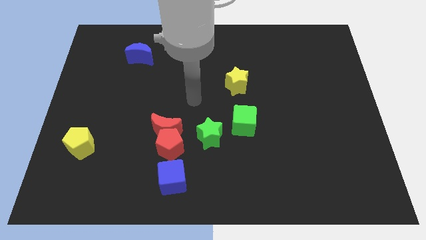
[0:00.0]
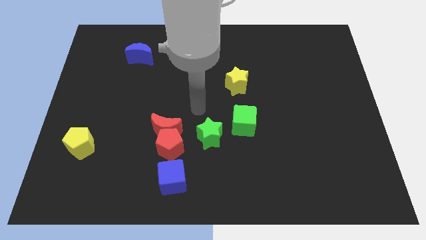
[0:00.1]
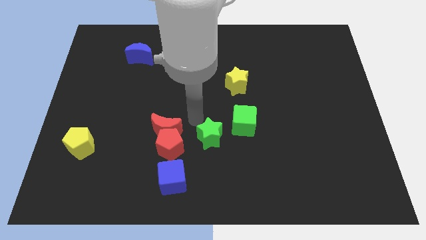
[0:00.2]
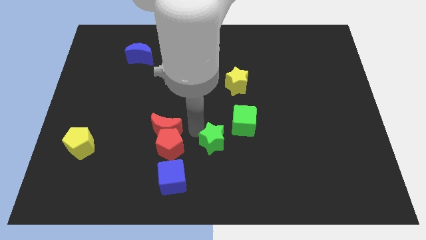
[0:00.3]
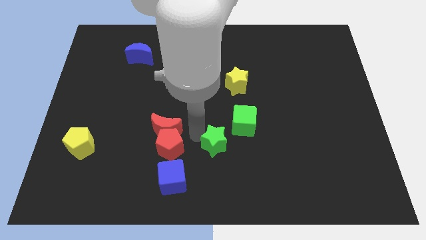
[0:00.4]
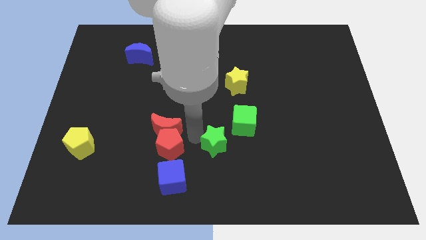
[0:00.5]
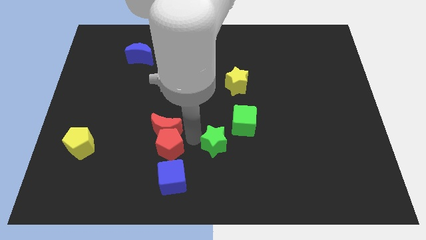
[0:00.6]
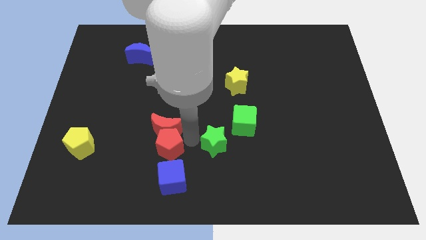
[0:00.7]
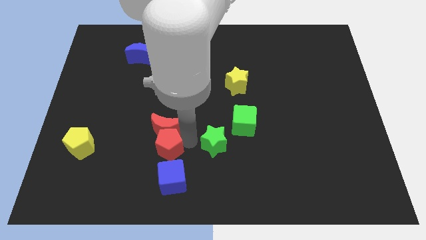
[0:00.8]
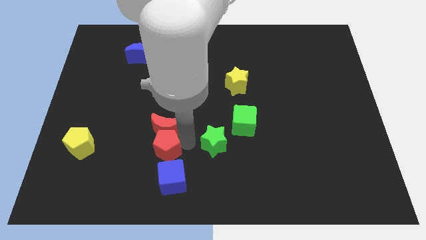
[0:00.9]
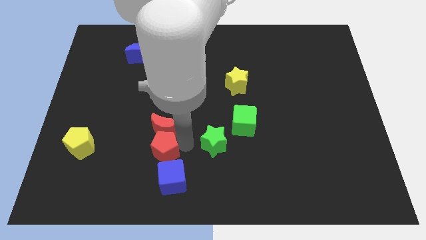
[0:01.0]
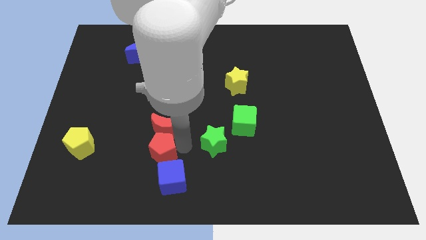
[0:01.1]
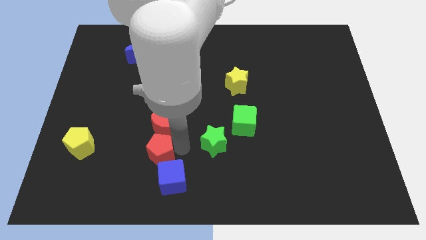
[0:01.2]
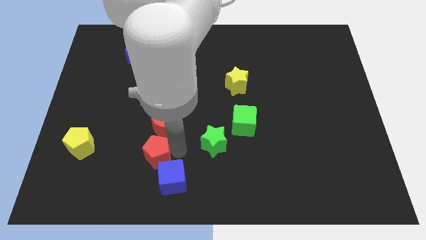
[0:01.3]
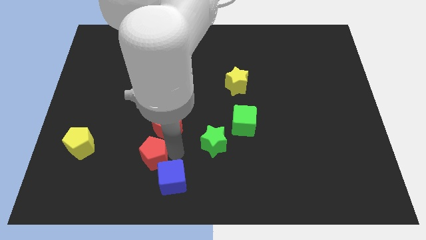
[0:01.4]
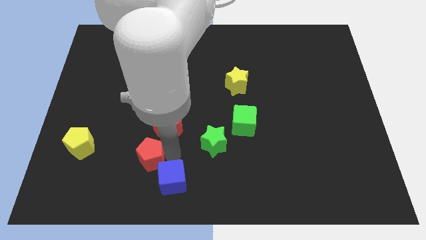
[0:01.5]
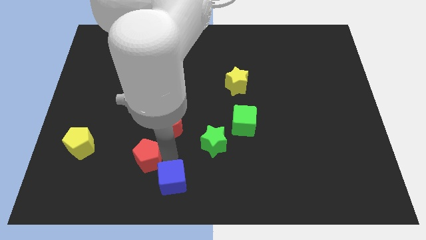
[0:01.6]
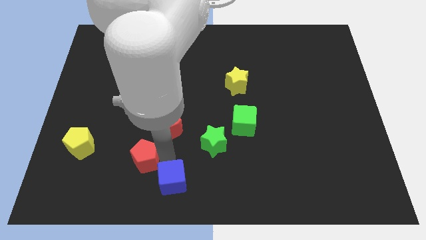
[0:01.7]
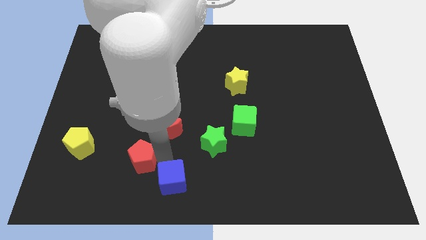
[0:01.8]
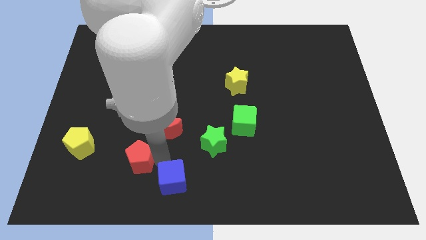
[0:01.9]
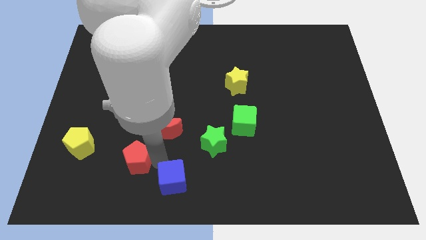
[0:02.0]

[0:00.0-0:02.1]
pull the red pentagon apart from the clump

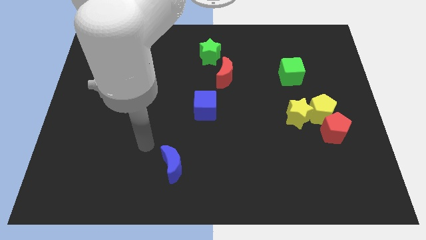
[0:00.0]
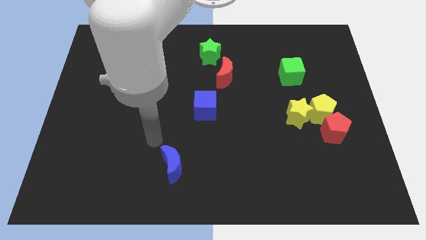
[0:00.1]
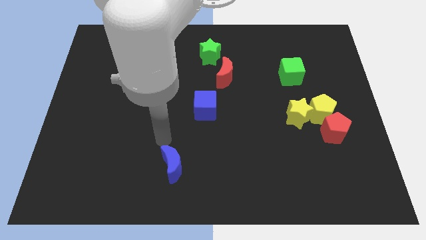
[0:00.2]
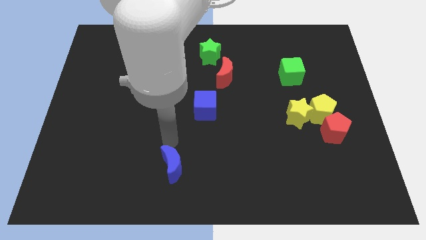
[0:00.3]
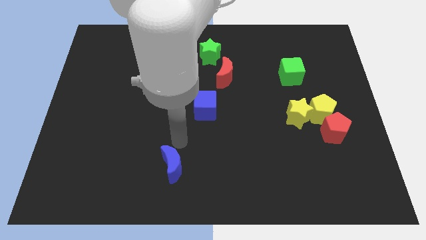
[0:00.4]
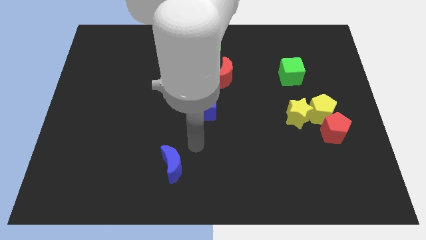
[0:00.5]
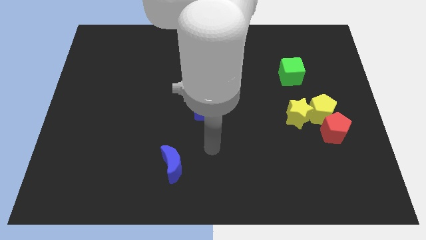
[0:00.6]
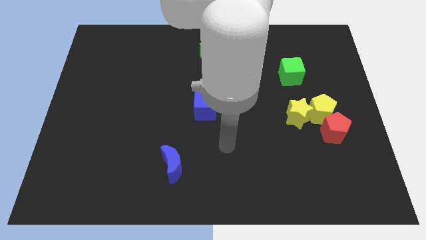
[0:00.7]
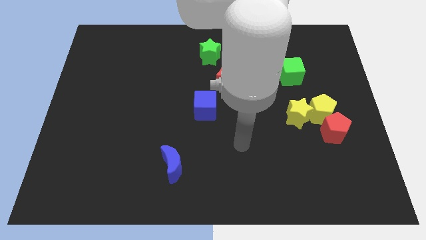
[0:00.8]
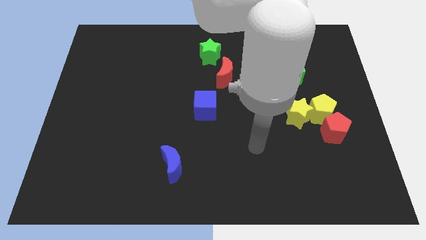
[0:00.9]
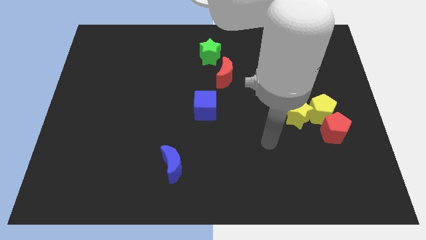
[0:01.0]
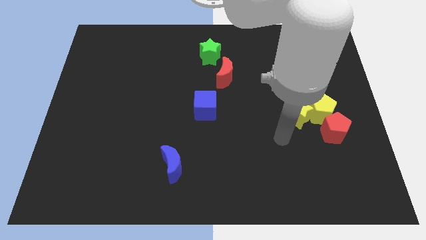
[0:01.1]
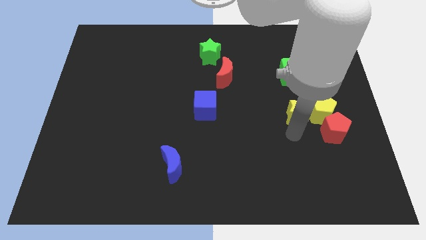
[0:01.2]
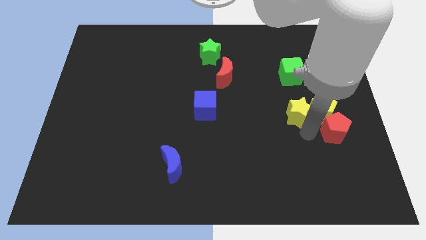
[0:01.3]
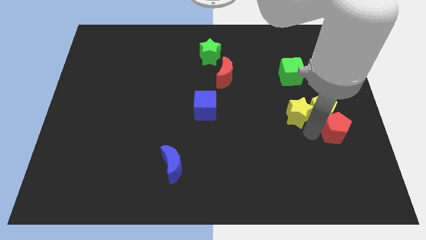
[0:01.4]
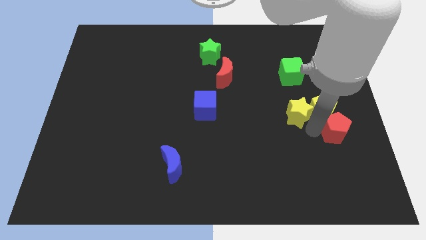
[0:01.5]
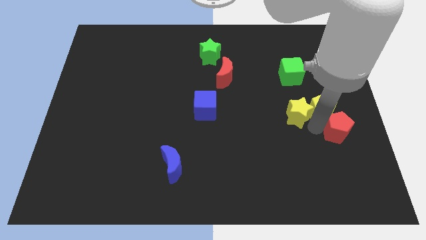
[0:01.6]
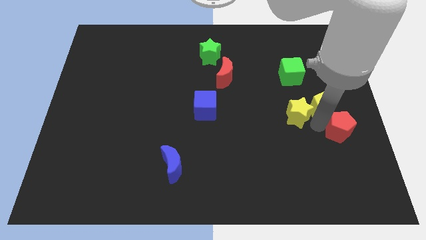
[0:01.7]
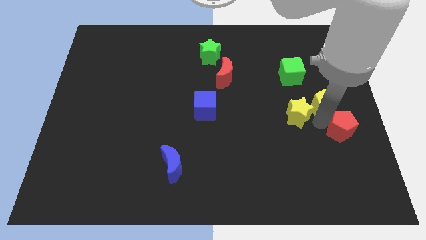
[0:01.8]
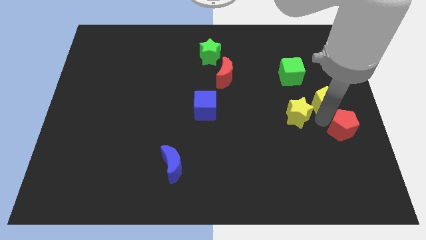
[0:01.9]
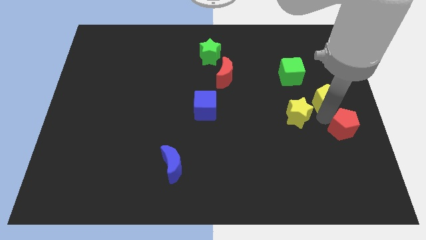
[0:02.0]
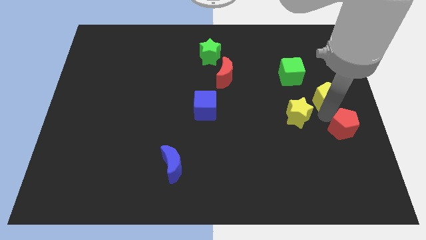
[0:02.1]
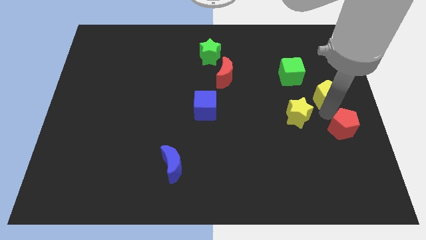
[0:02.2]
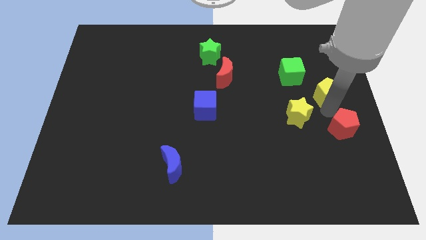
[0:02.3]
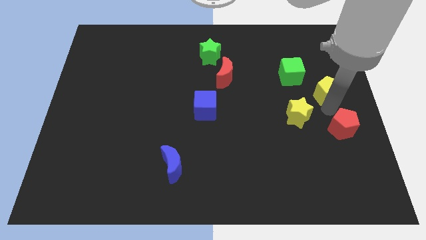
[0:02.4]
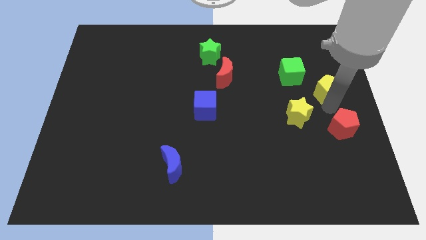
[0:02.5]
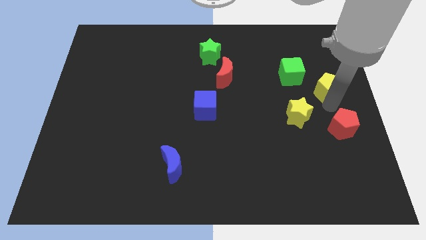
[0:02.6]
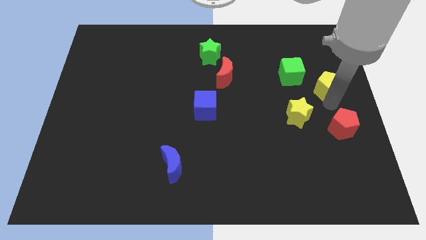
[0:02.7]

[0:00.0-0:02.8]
move the yellow pentagon away from the yellow star and red pentagon

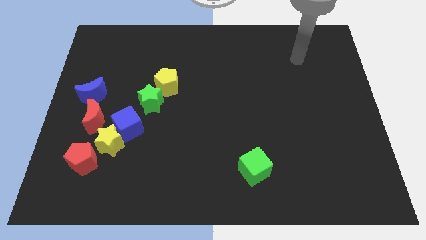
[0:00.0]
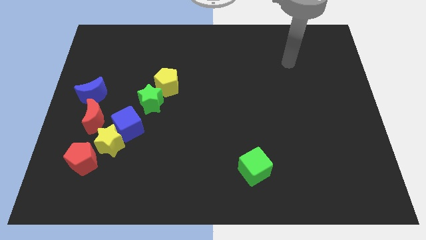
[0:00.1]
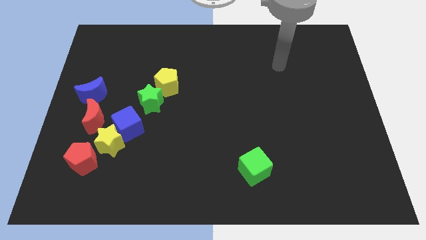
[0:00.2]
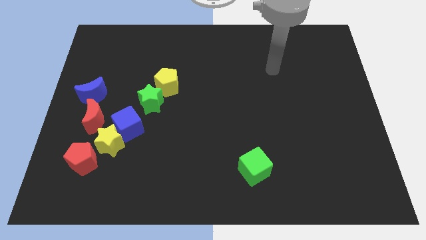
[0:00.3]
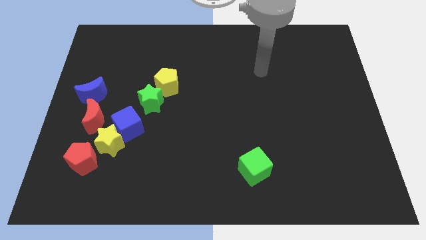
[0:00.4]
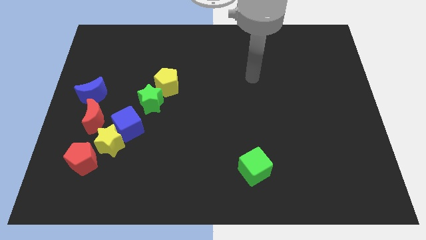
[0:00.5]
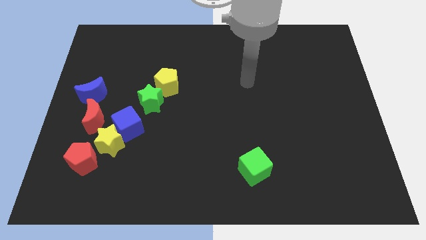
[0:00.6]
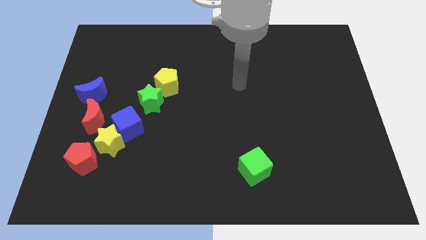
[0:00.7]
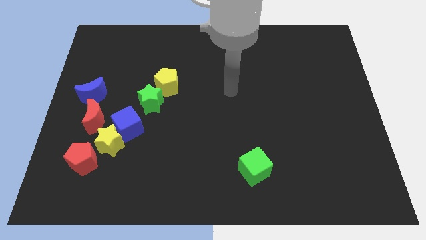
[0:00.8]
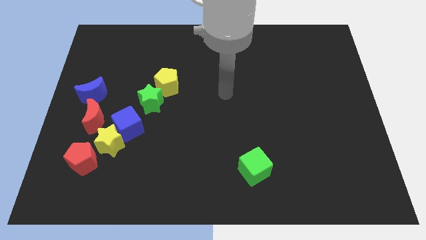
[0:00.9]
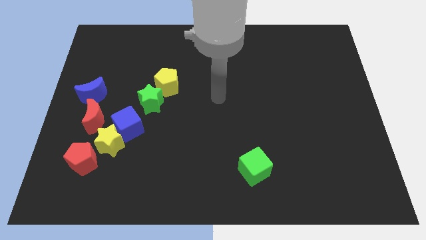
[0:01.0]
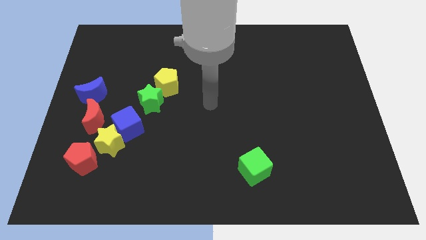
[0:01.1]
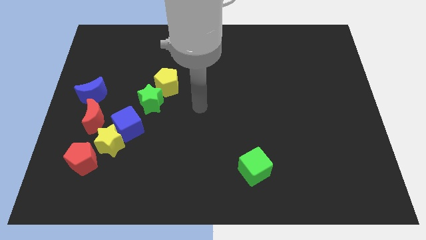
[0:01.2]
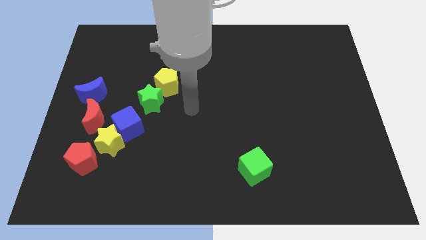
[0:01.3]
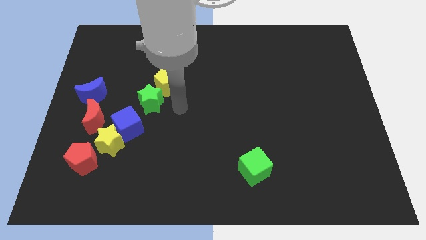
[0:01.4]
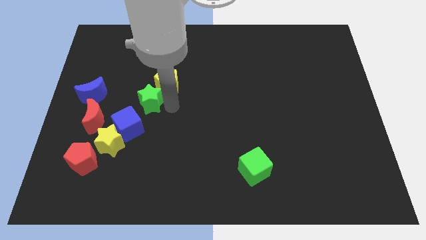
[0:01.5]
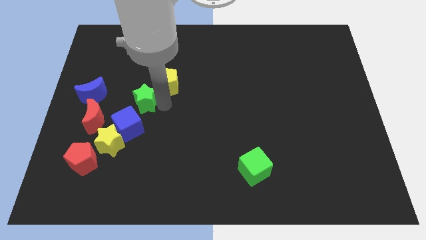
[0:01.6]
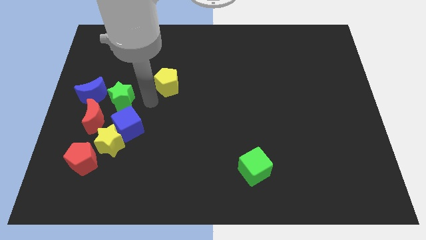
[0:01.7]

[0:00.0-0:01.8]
pull the yellow pentagon apart from the green star

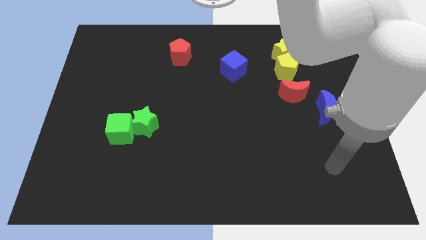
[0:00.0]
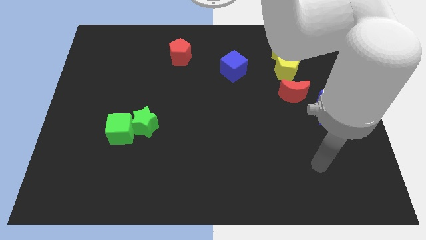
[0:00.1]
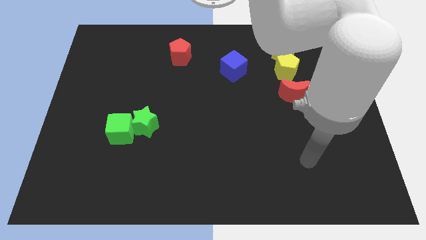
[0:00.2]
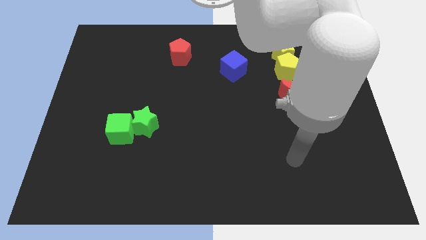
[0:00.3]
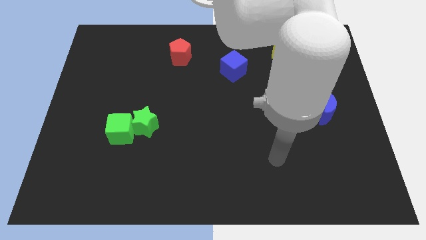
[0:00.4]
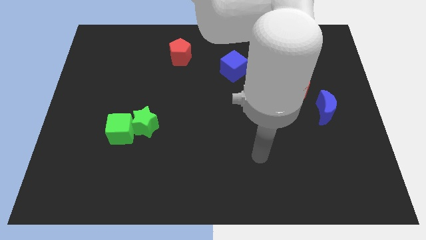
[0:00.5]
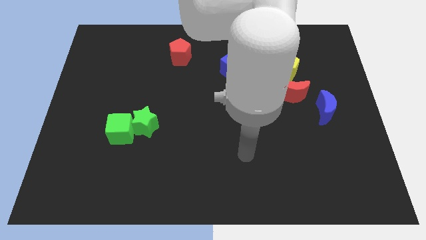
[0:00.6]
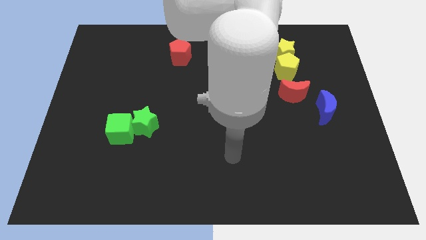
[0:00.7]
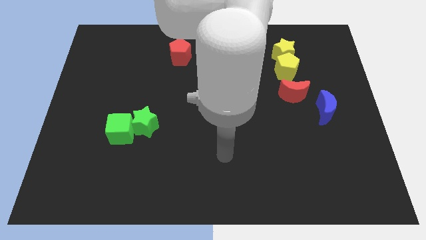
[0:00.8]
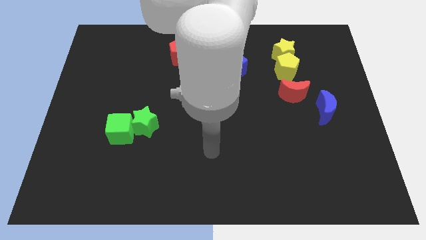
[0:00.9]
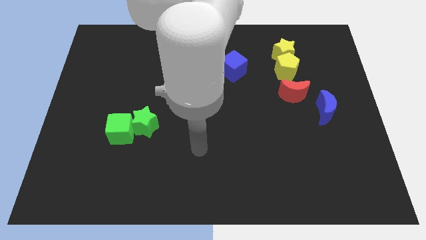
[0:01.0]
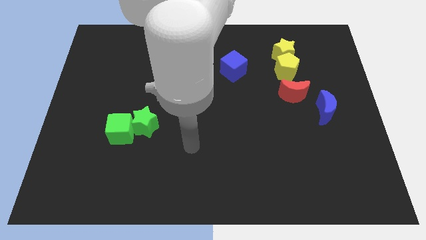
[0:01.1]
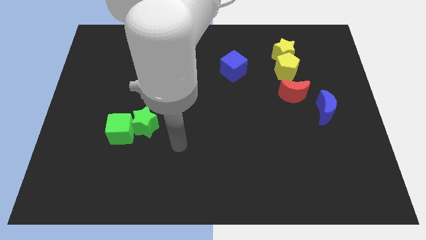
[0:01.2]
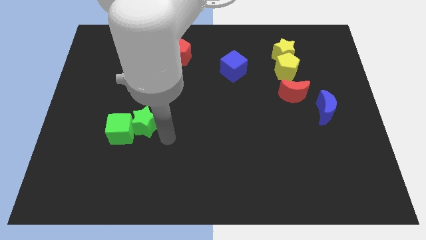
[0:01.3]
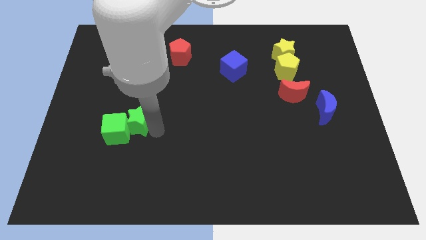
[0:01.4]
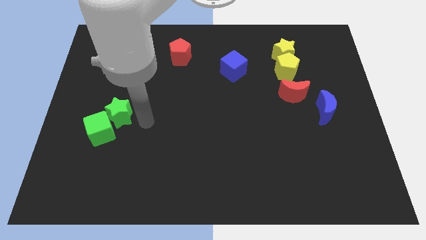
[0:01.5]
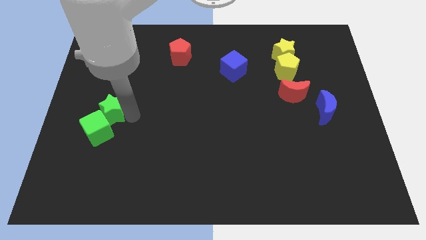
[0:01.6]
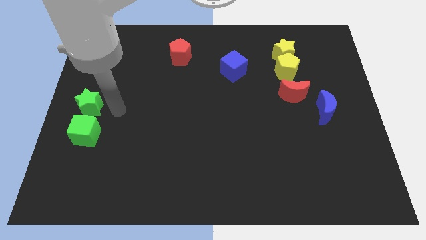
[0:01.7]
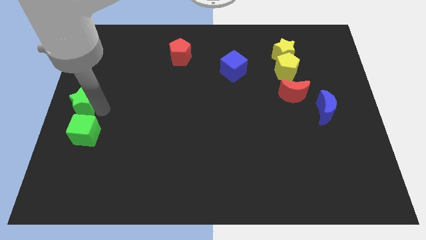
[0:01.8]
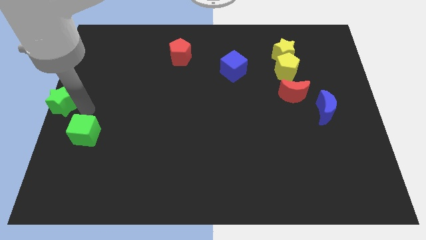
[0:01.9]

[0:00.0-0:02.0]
pull the green cube apart from the green star

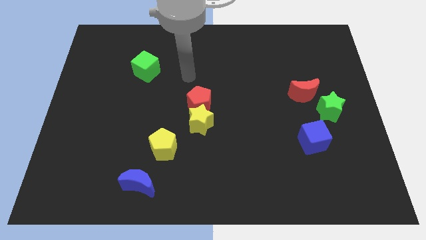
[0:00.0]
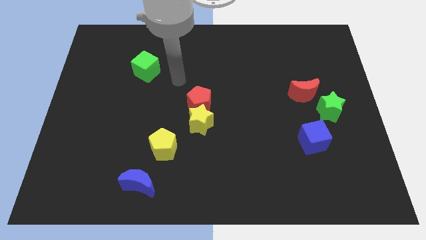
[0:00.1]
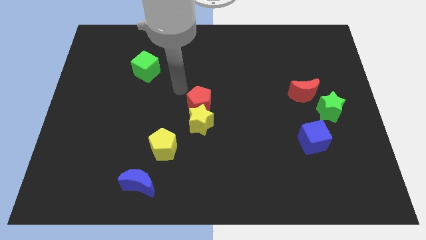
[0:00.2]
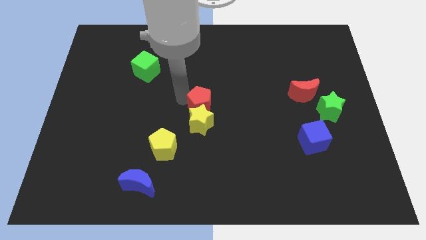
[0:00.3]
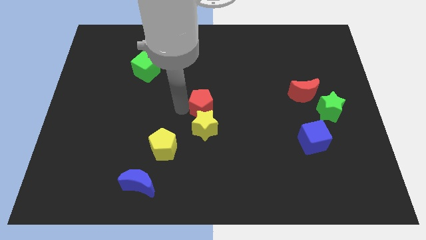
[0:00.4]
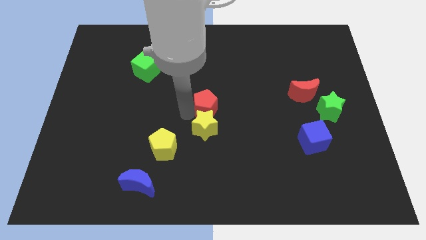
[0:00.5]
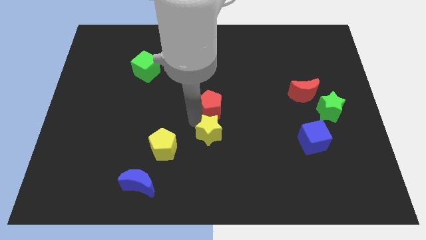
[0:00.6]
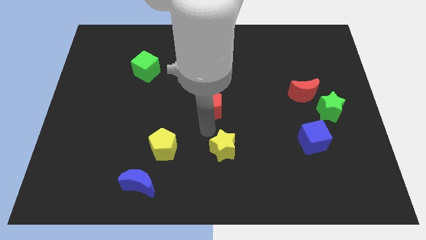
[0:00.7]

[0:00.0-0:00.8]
move the red pentagon away from the yellow star
